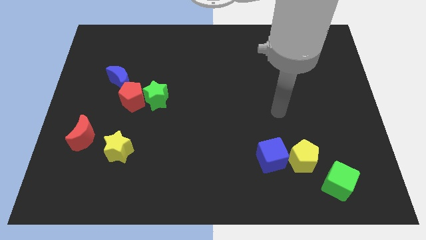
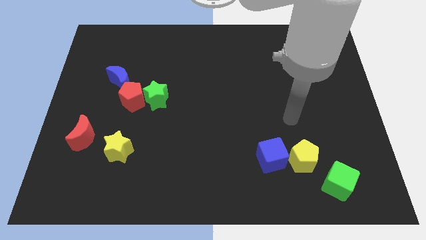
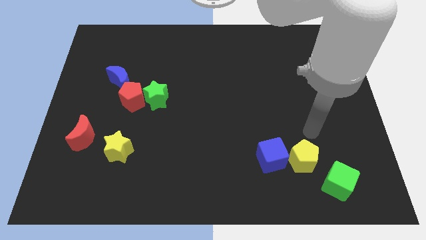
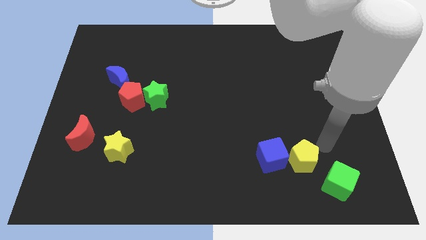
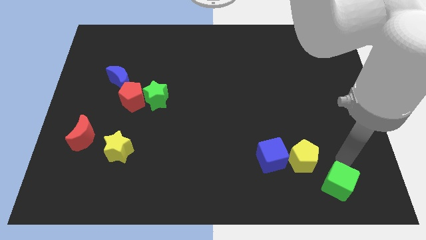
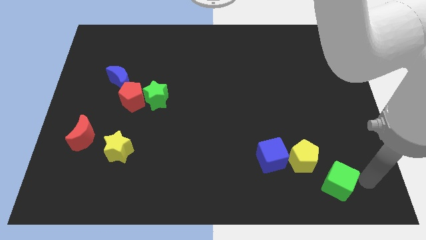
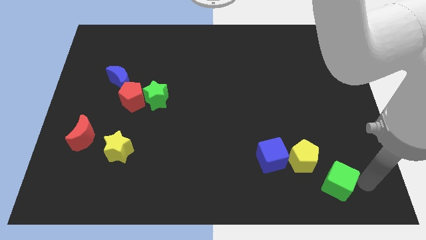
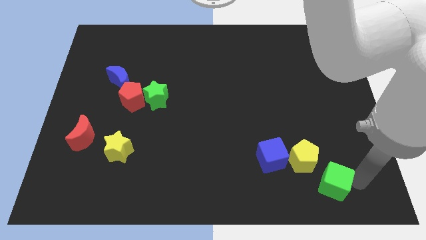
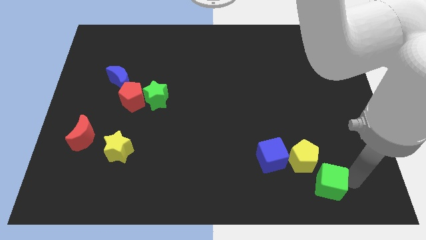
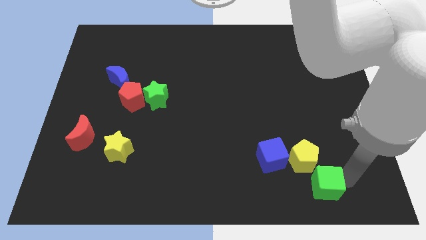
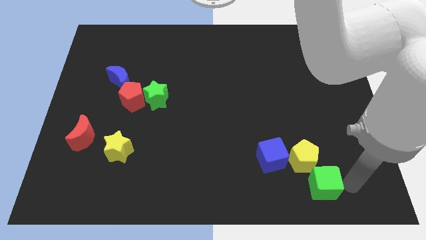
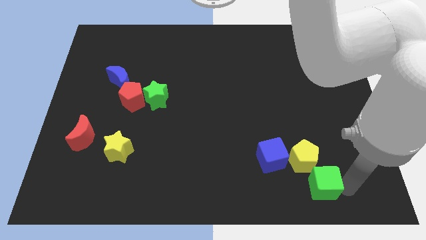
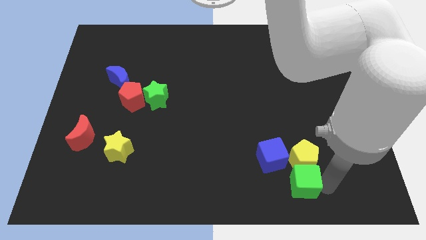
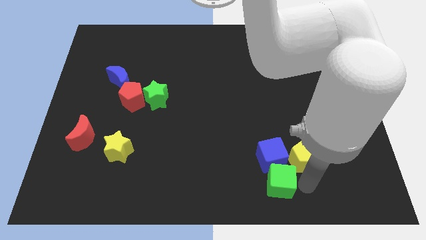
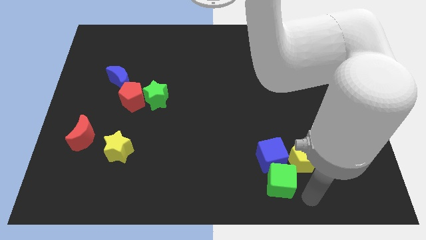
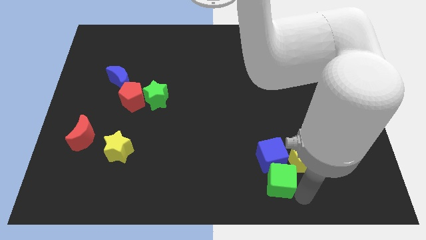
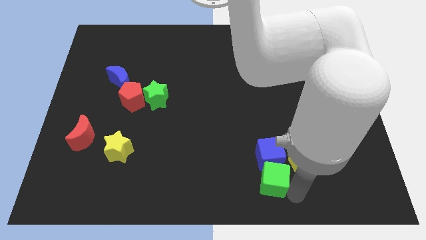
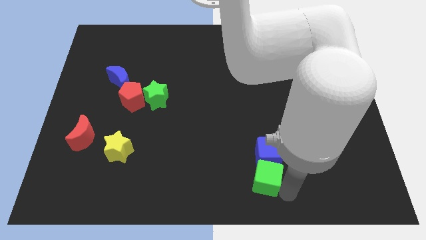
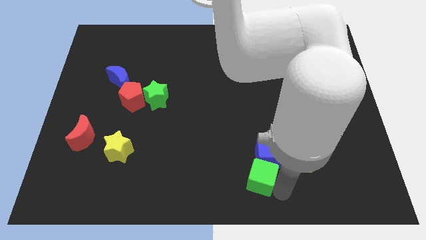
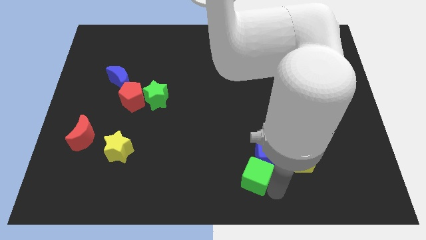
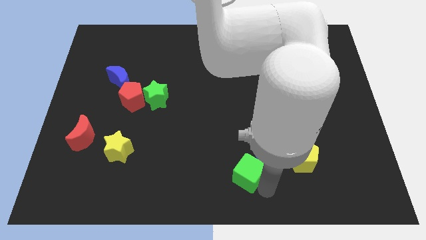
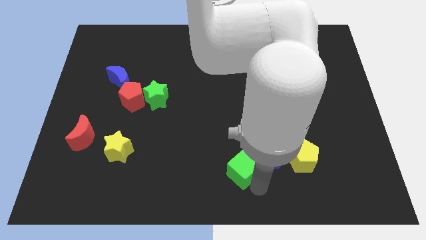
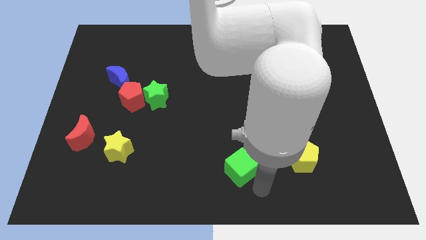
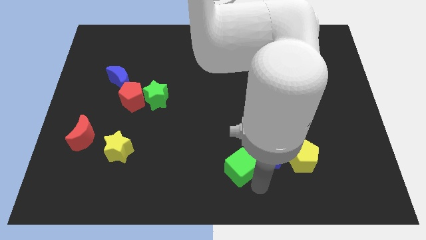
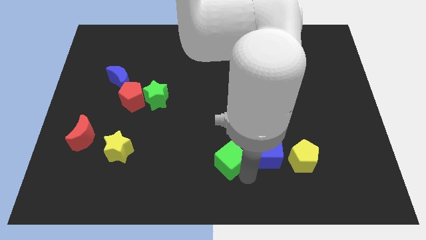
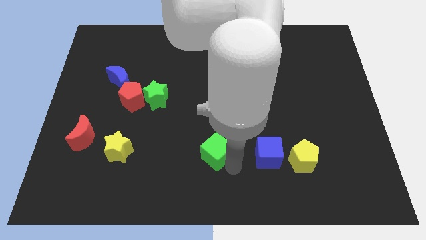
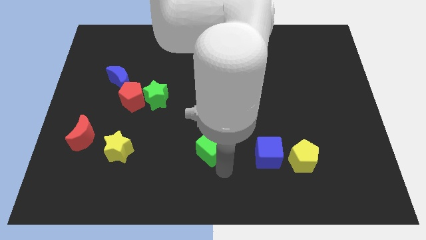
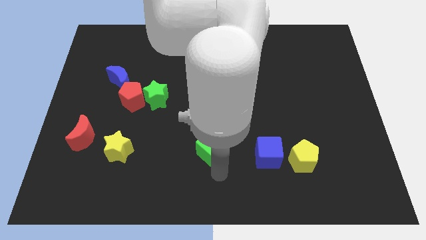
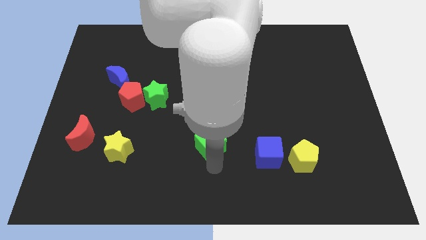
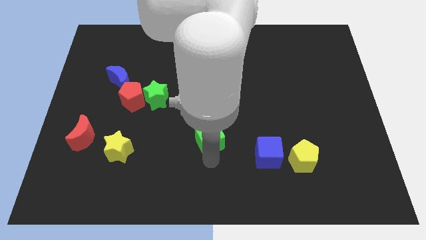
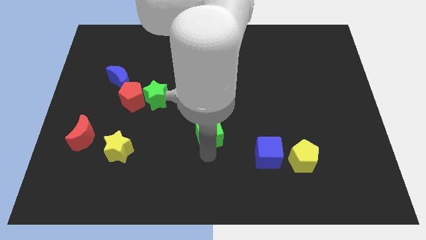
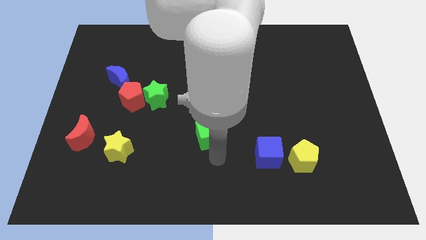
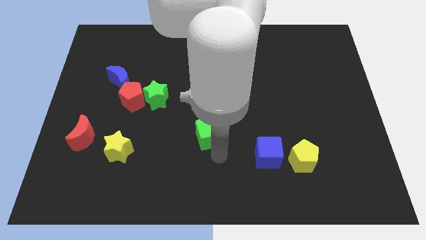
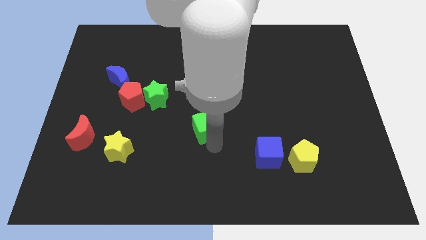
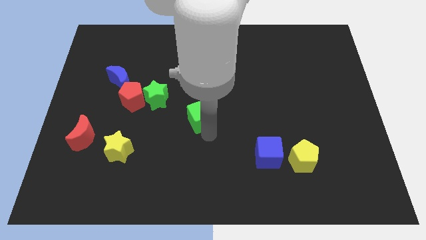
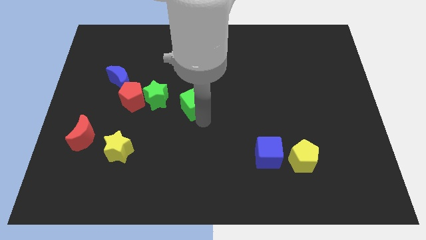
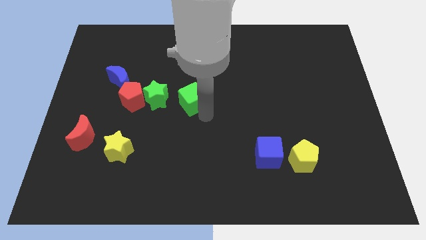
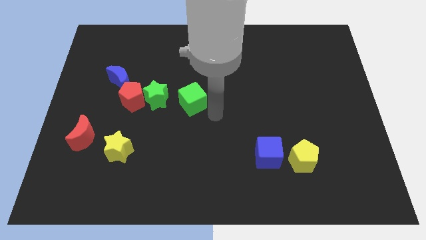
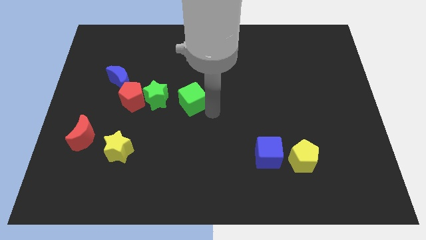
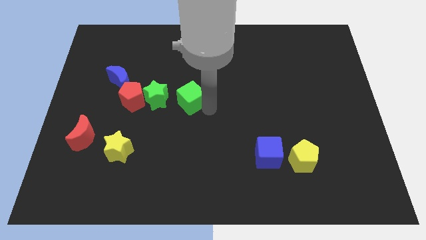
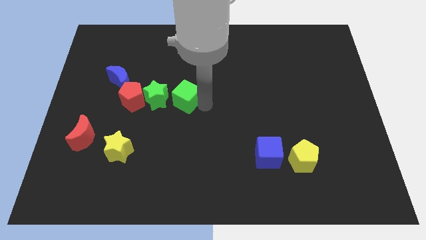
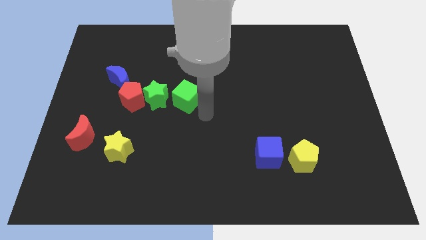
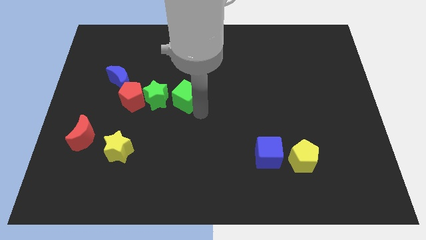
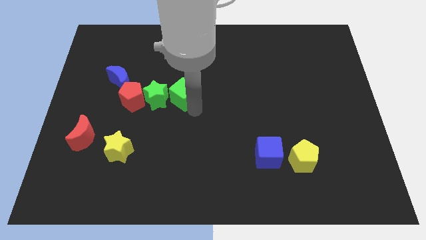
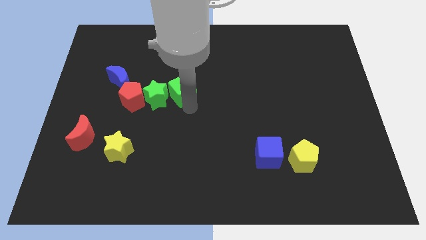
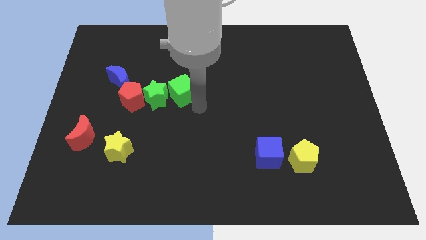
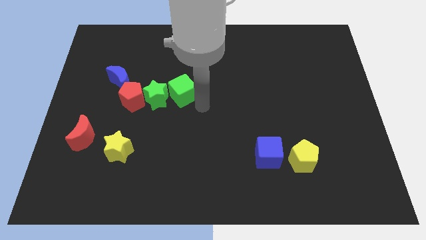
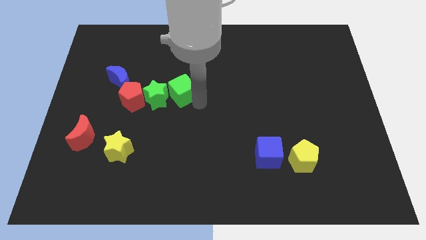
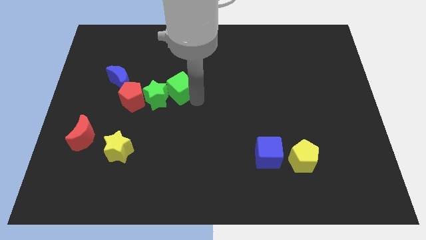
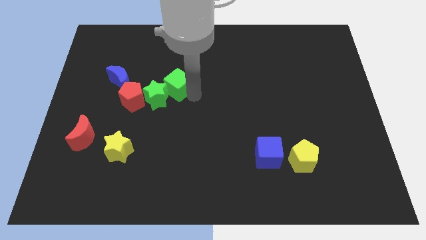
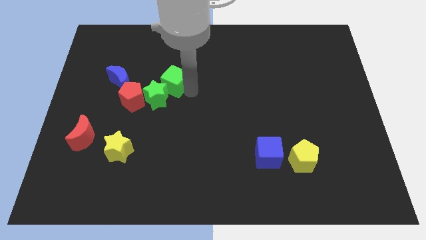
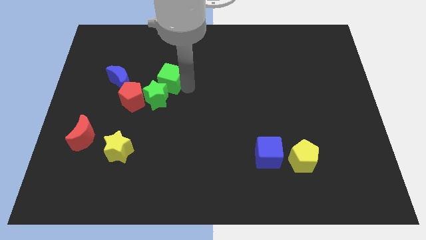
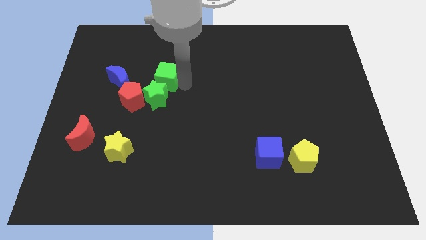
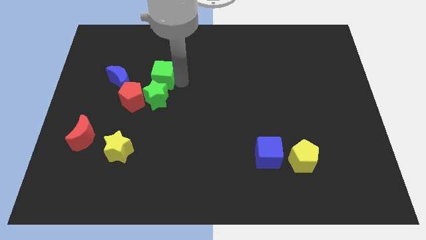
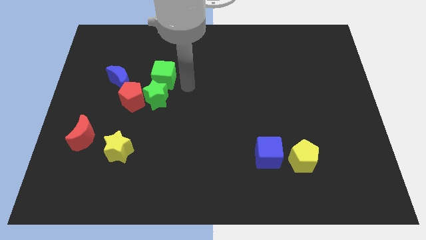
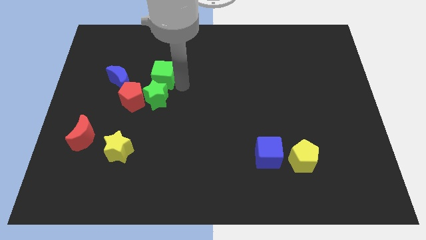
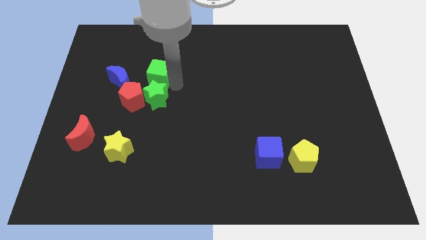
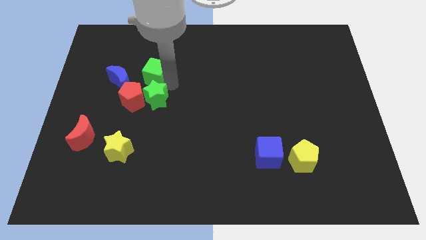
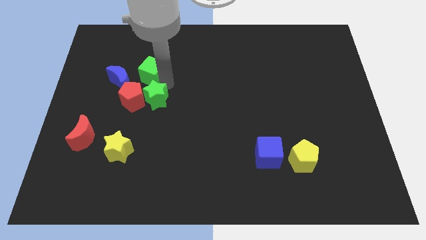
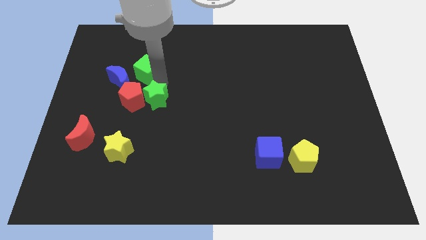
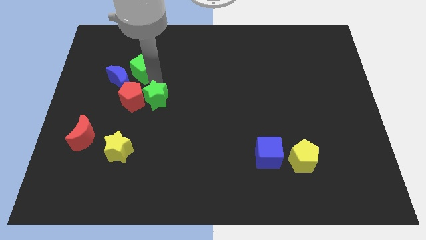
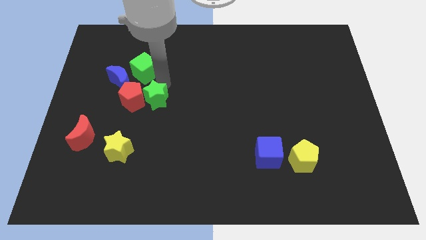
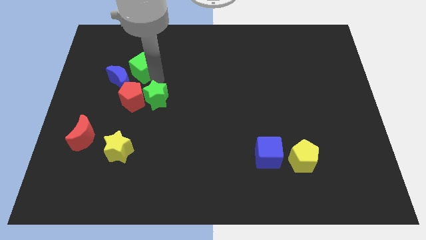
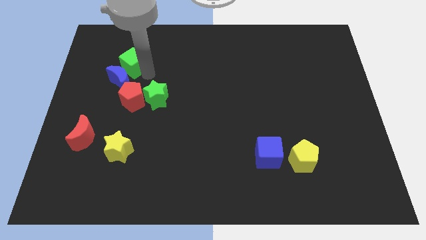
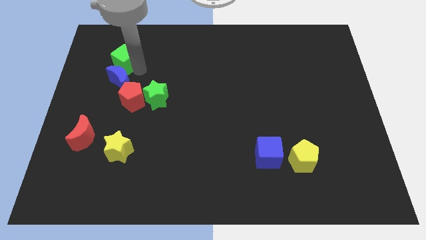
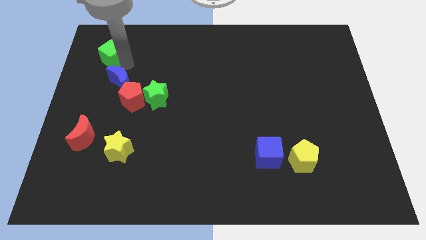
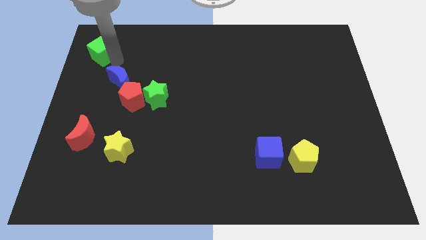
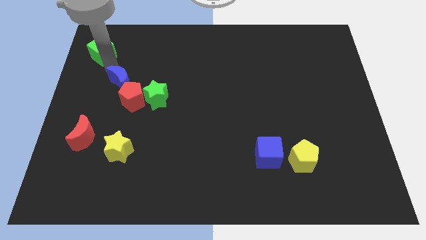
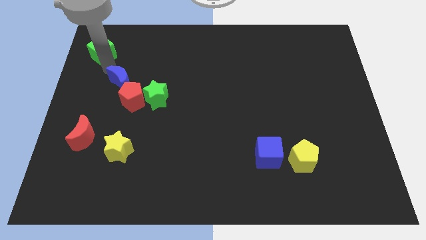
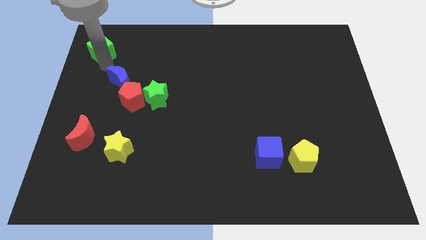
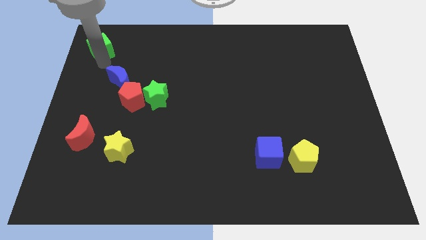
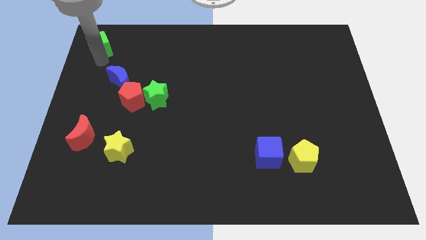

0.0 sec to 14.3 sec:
put the green cube to the top left
